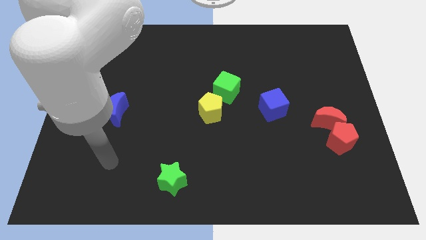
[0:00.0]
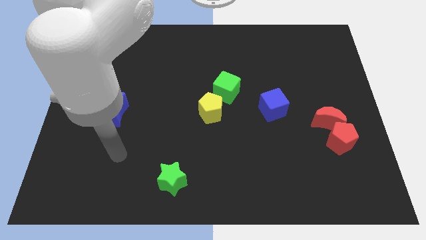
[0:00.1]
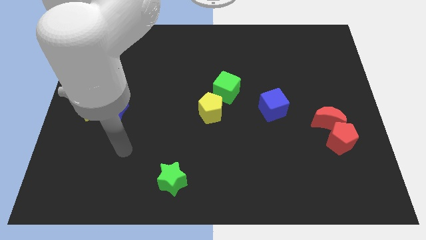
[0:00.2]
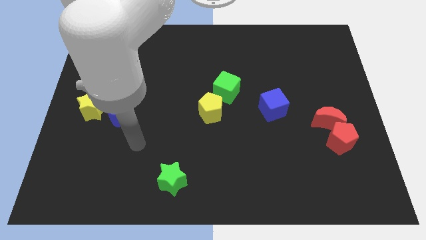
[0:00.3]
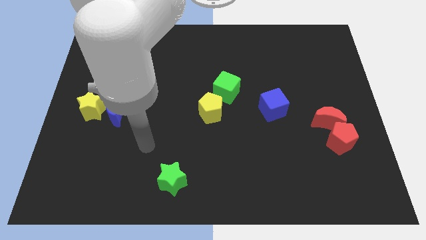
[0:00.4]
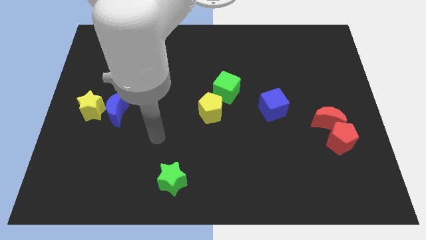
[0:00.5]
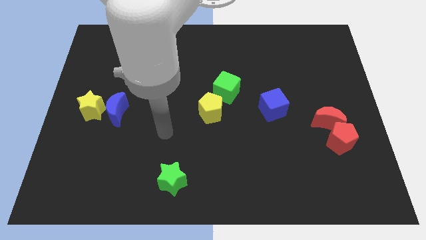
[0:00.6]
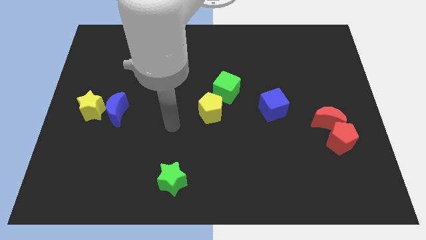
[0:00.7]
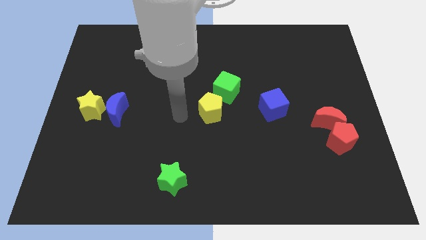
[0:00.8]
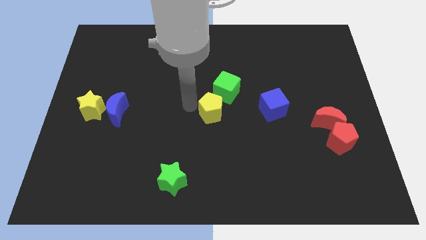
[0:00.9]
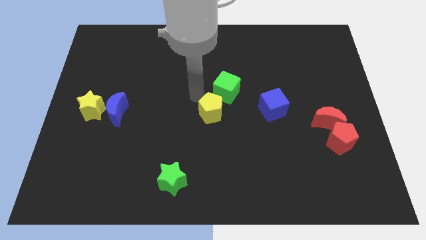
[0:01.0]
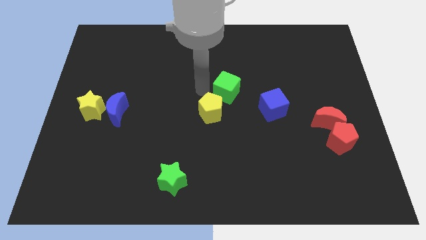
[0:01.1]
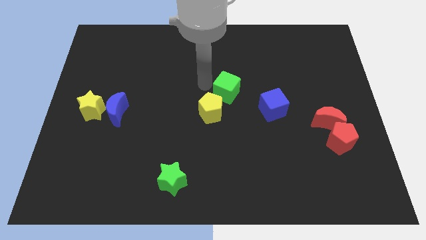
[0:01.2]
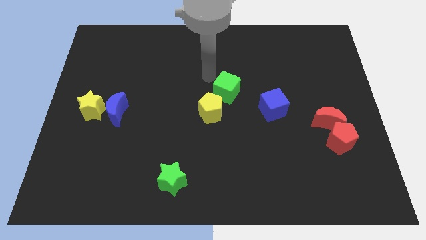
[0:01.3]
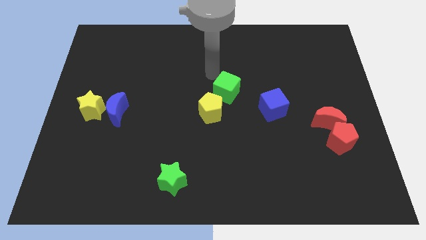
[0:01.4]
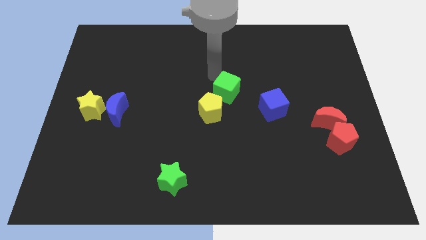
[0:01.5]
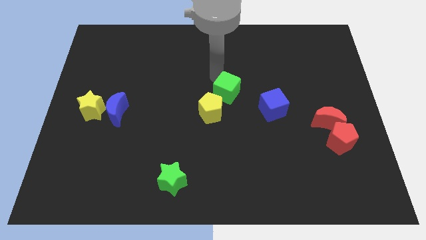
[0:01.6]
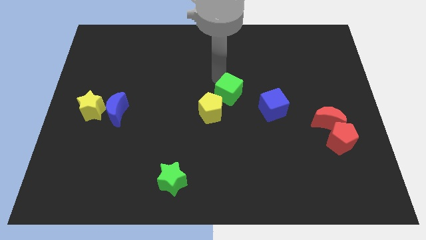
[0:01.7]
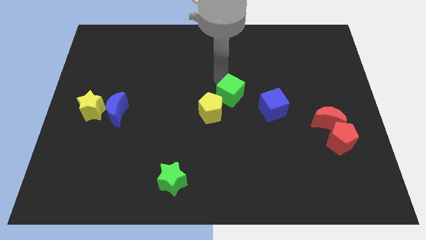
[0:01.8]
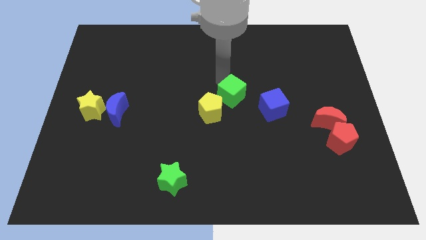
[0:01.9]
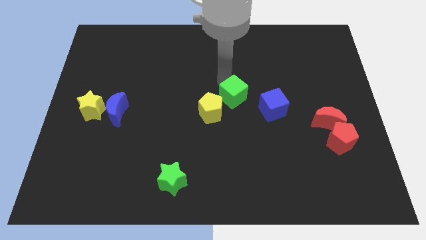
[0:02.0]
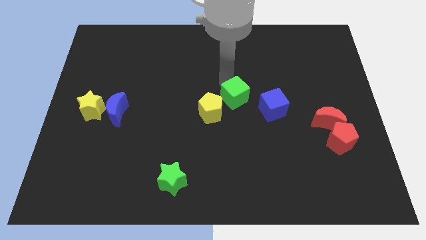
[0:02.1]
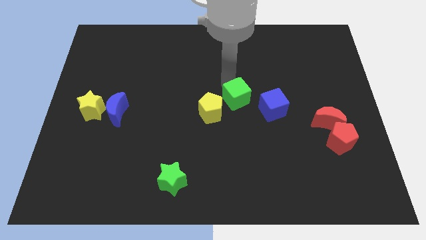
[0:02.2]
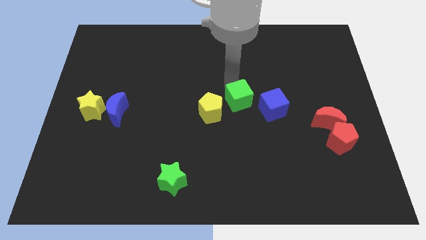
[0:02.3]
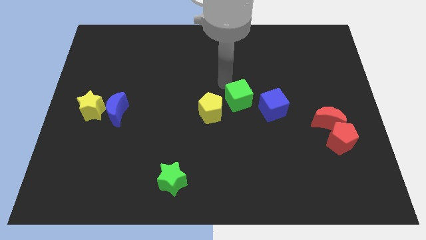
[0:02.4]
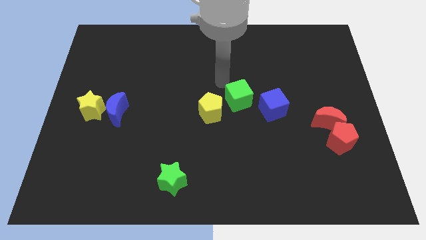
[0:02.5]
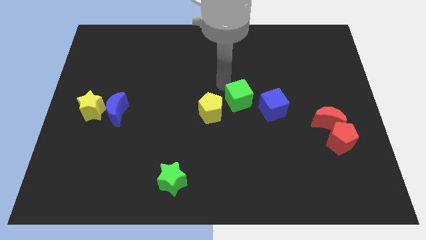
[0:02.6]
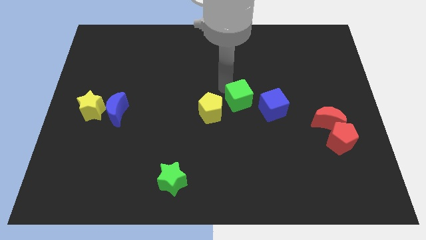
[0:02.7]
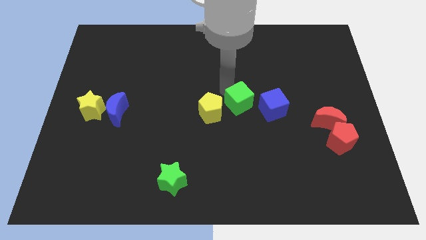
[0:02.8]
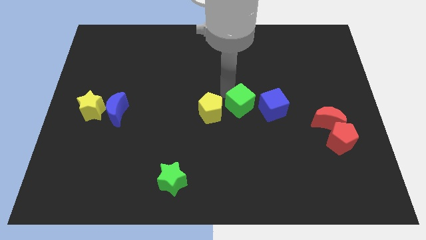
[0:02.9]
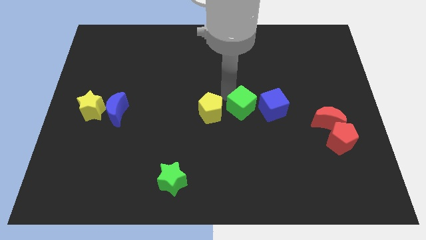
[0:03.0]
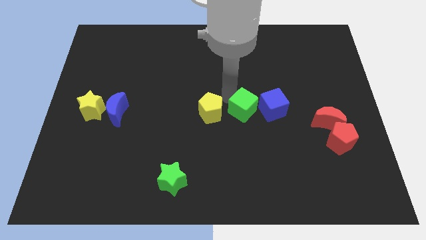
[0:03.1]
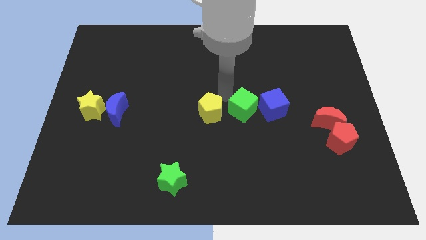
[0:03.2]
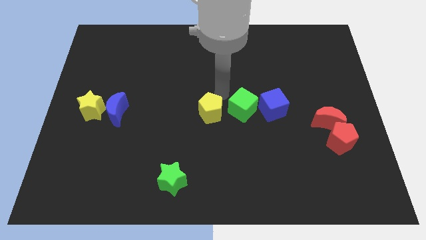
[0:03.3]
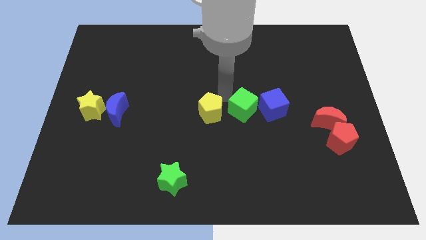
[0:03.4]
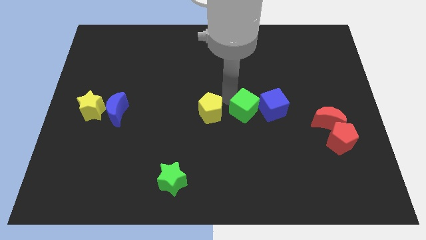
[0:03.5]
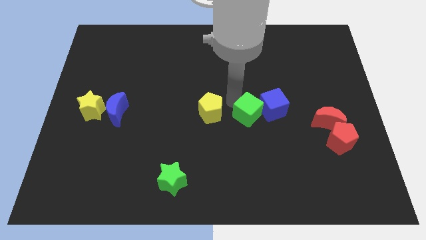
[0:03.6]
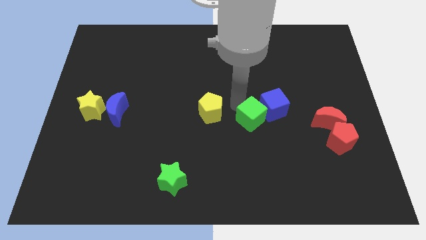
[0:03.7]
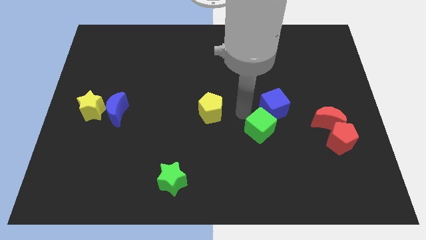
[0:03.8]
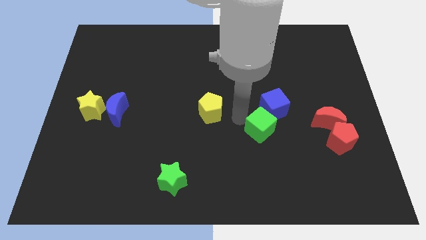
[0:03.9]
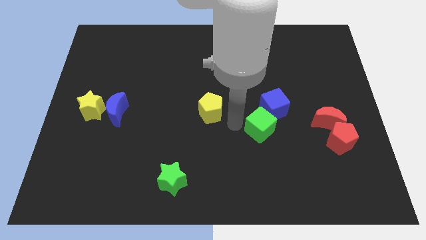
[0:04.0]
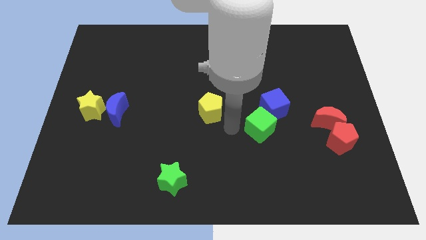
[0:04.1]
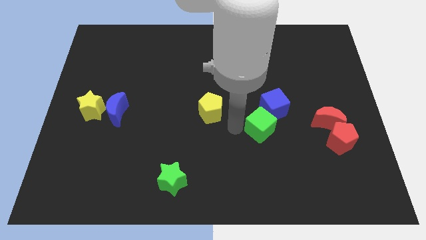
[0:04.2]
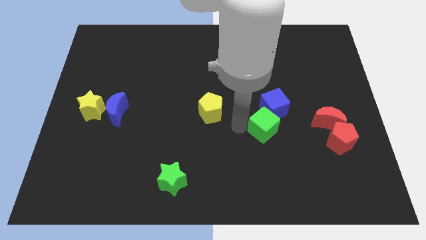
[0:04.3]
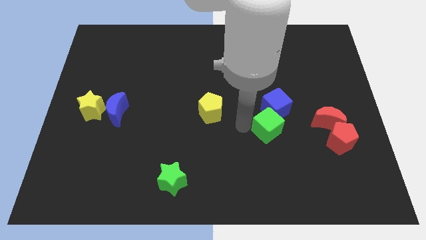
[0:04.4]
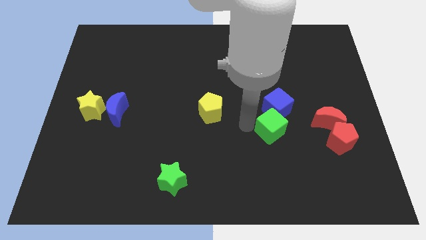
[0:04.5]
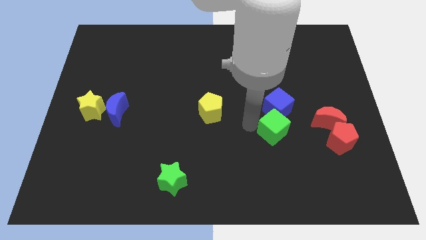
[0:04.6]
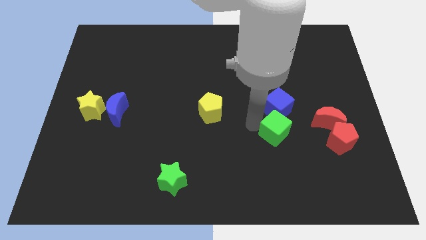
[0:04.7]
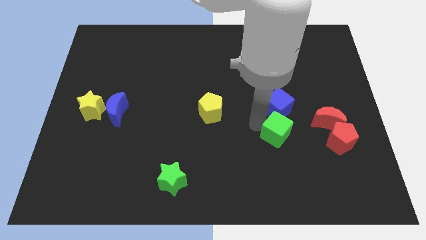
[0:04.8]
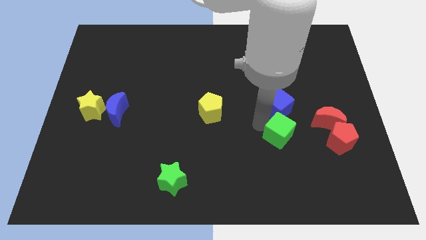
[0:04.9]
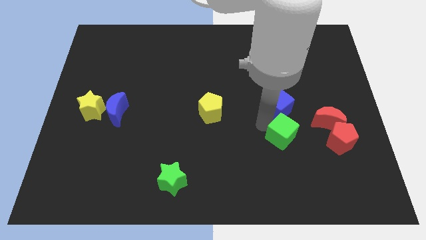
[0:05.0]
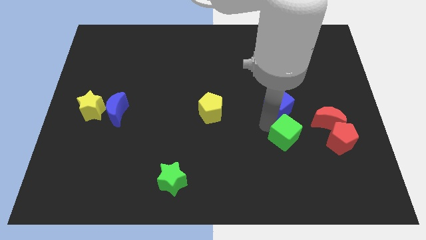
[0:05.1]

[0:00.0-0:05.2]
push the green cube to the bottom right of the blue cube

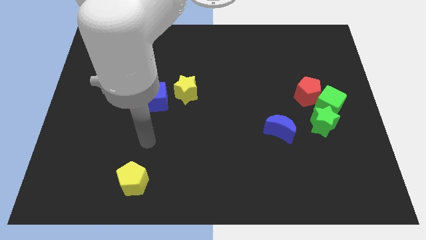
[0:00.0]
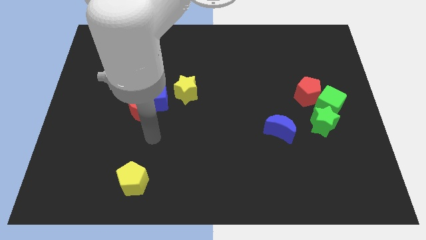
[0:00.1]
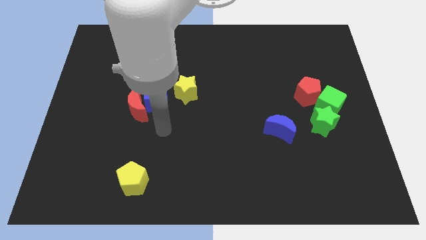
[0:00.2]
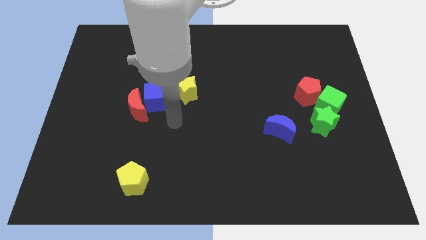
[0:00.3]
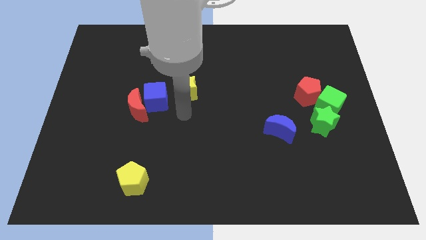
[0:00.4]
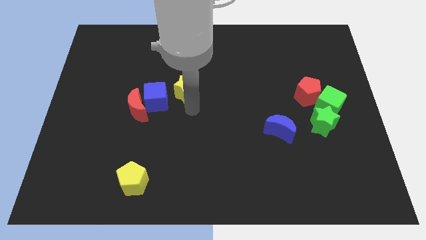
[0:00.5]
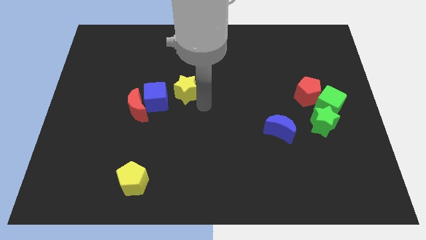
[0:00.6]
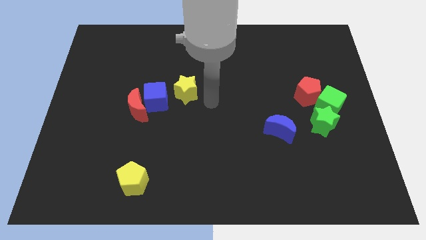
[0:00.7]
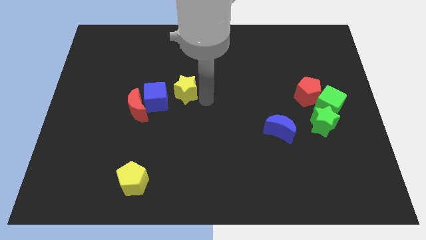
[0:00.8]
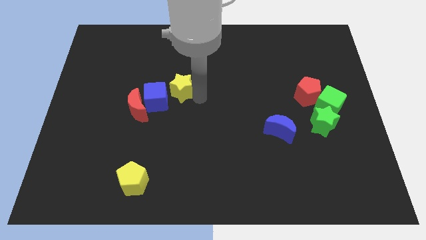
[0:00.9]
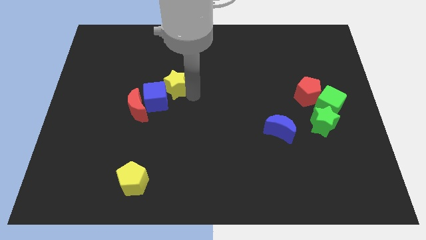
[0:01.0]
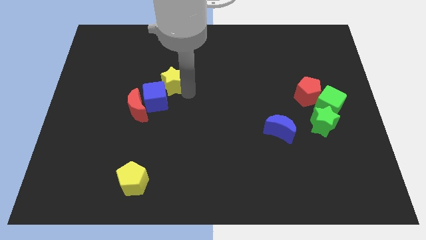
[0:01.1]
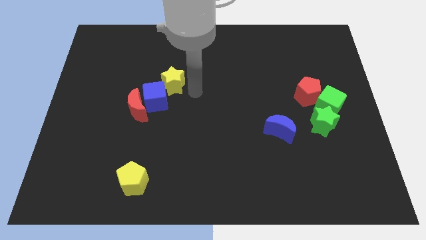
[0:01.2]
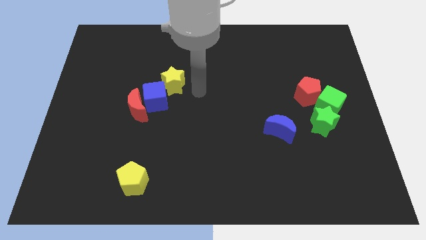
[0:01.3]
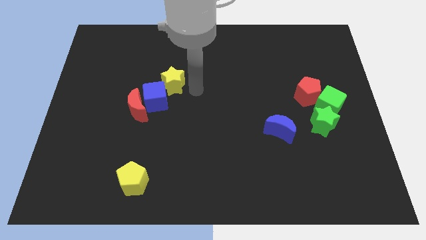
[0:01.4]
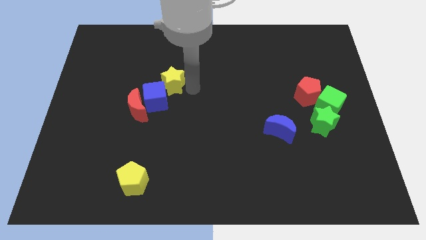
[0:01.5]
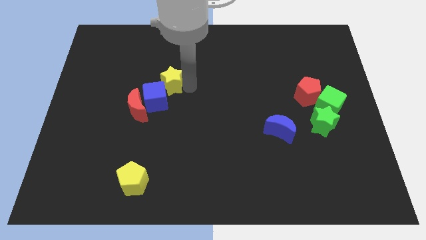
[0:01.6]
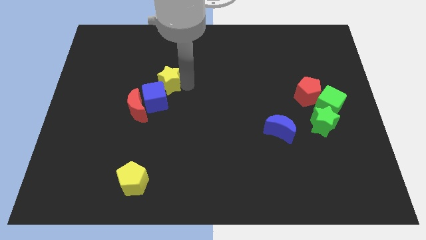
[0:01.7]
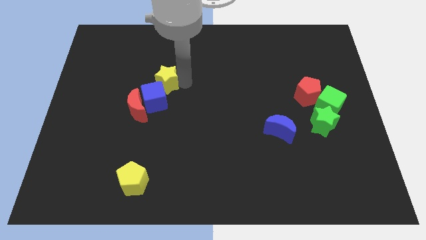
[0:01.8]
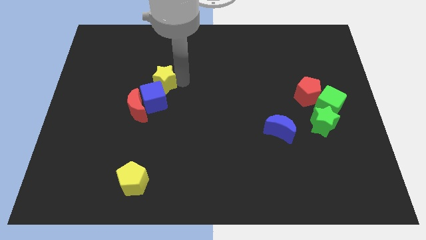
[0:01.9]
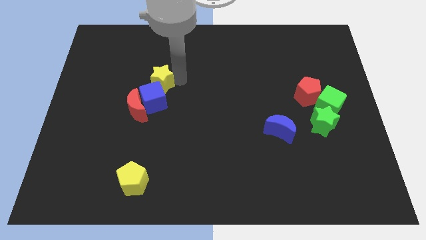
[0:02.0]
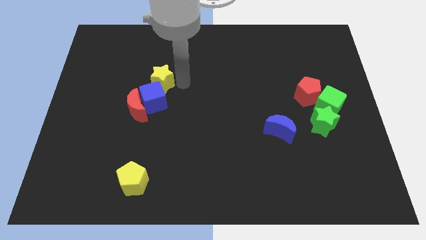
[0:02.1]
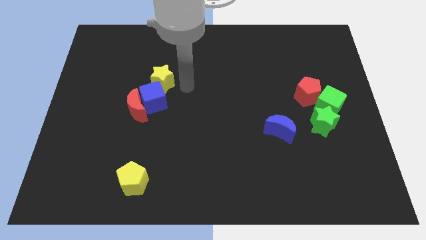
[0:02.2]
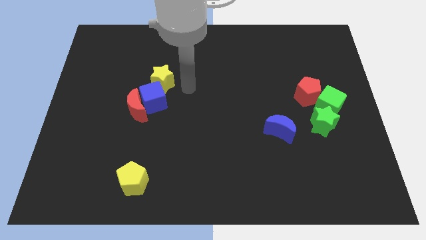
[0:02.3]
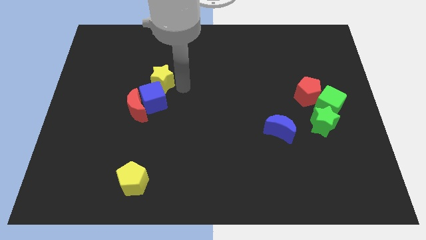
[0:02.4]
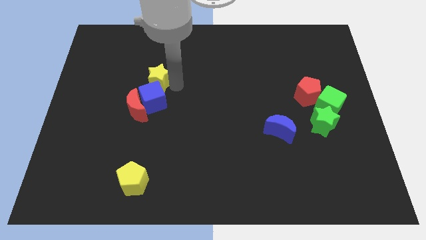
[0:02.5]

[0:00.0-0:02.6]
slide the yellow star to the top of the red moon
